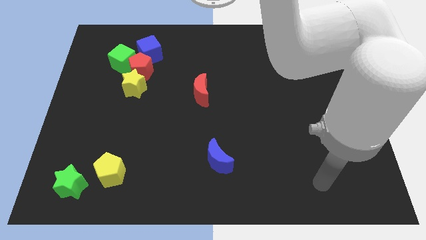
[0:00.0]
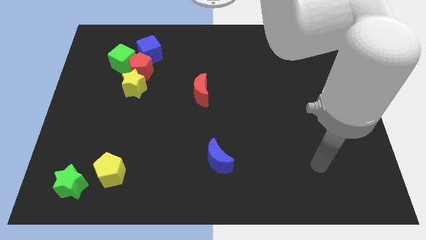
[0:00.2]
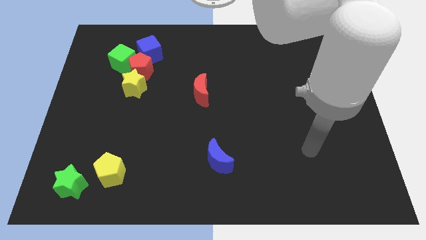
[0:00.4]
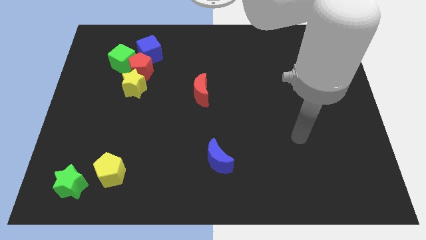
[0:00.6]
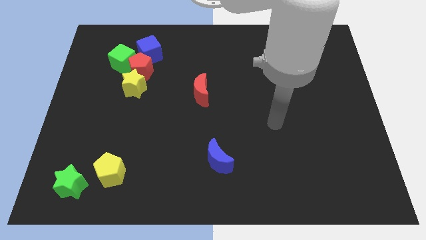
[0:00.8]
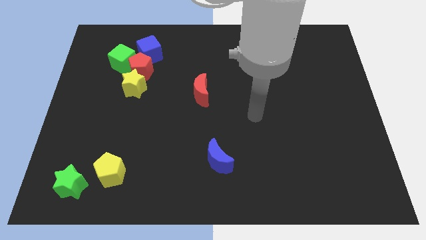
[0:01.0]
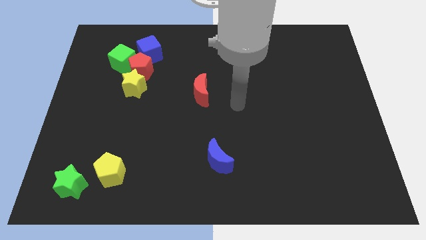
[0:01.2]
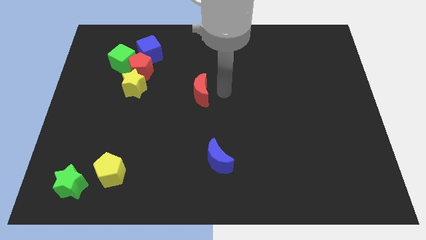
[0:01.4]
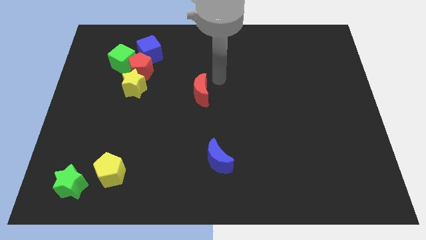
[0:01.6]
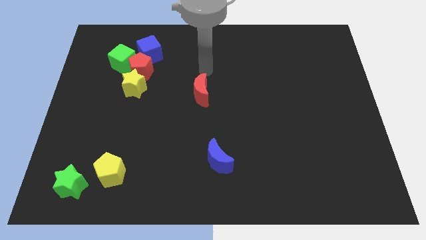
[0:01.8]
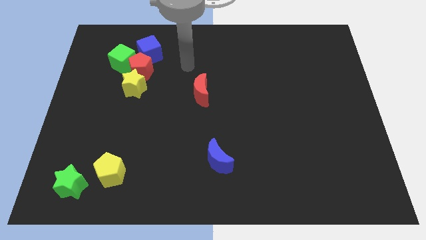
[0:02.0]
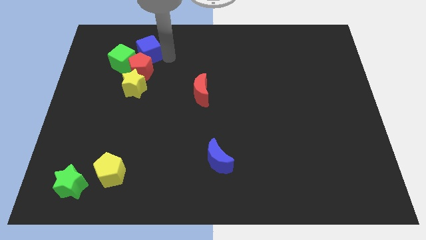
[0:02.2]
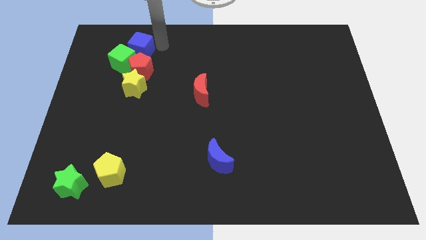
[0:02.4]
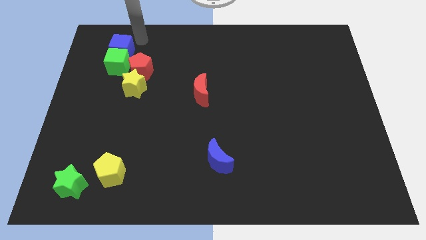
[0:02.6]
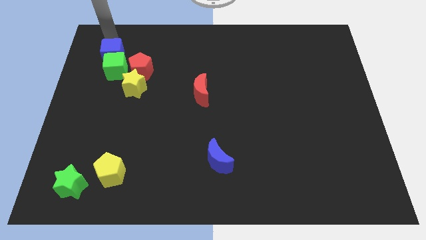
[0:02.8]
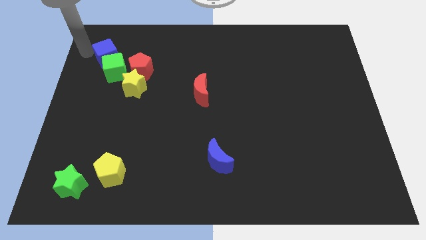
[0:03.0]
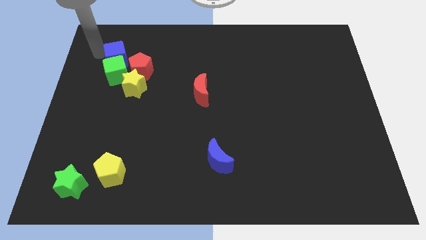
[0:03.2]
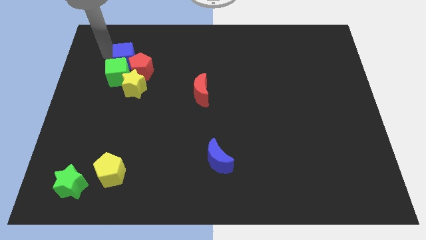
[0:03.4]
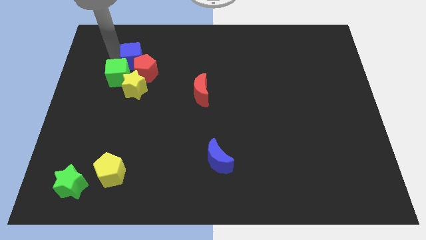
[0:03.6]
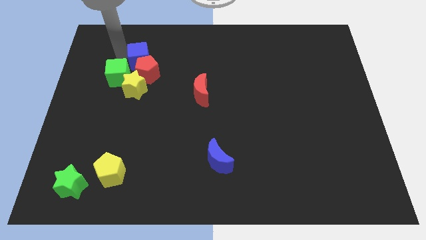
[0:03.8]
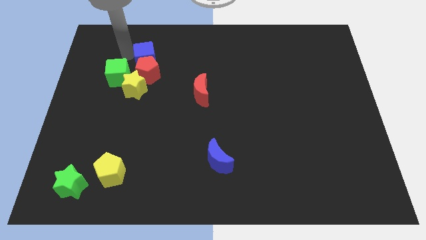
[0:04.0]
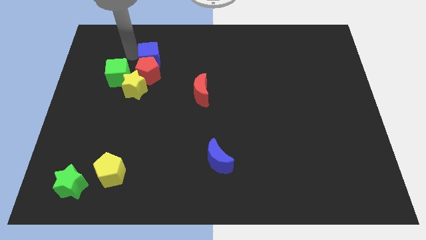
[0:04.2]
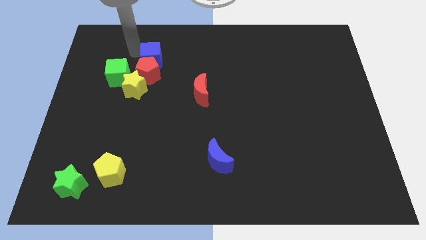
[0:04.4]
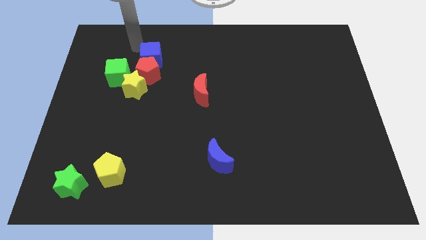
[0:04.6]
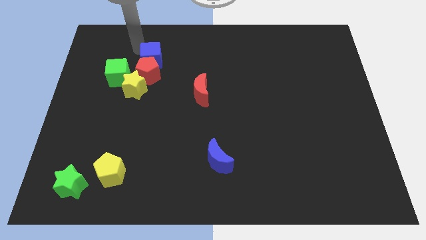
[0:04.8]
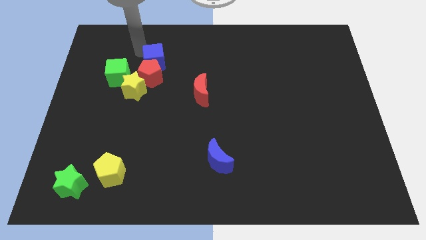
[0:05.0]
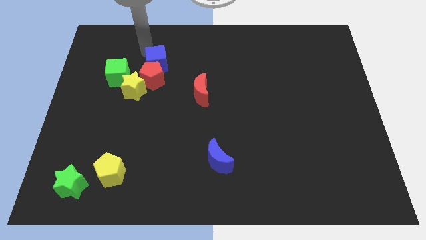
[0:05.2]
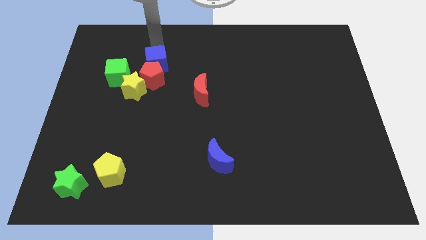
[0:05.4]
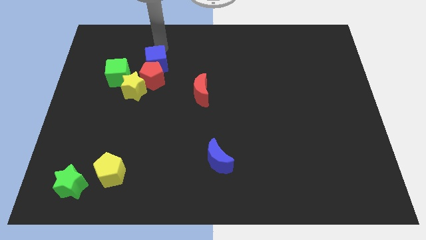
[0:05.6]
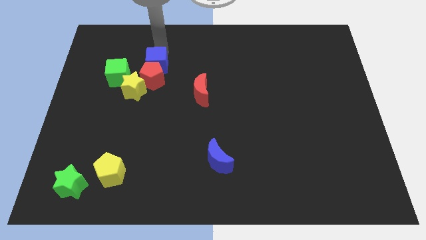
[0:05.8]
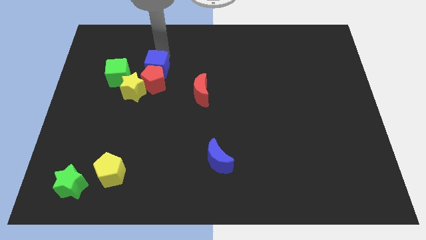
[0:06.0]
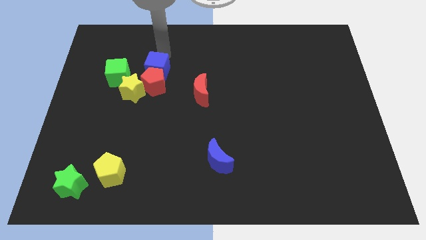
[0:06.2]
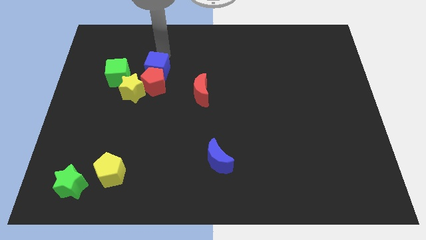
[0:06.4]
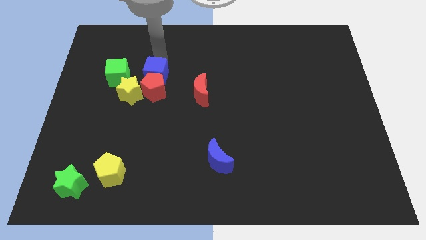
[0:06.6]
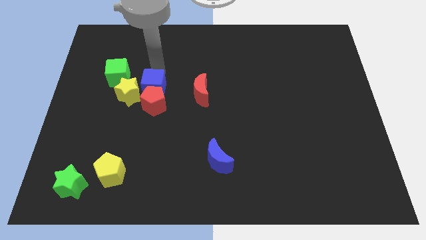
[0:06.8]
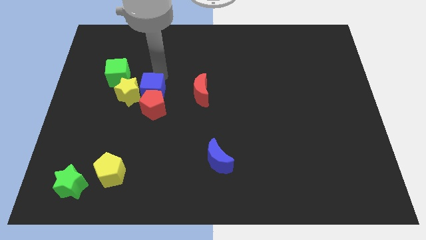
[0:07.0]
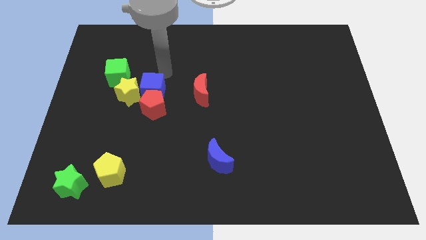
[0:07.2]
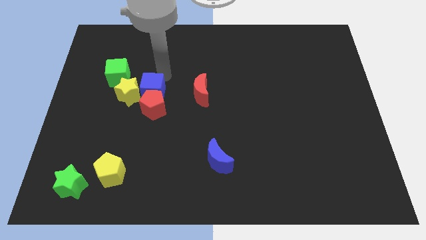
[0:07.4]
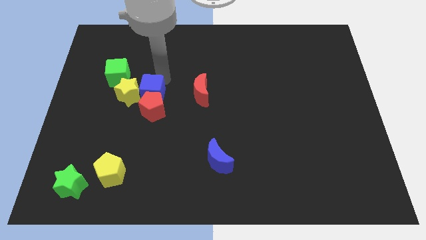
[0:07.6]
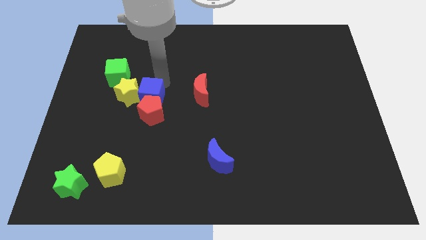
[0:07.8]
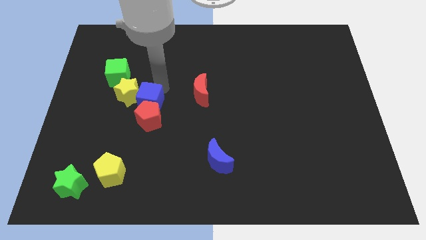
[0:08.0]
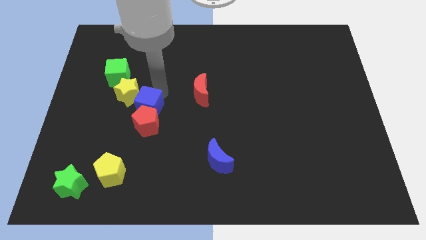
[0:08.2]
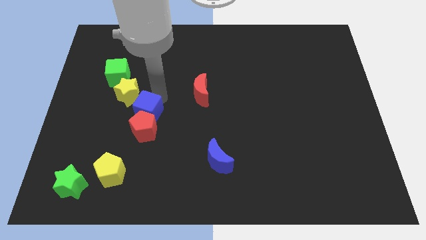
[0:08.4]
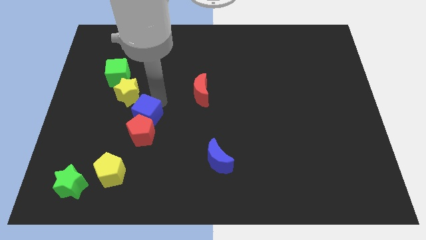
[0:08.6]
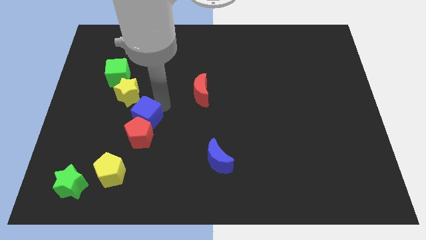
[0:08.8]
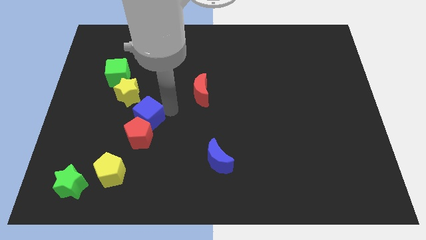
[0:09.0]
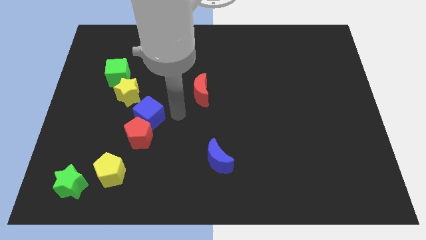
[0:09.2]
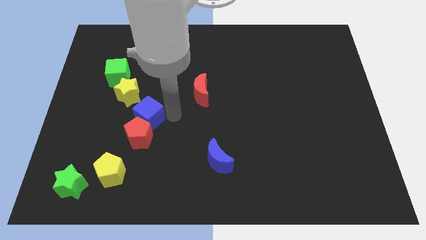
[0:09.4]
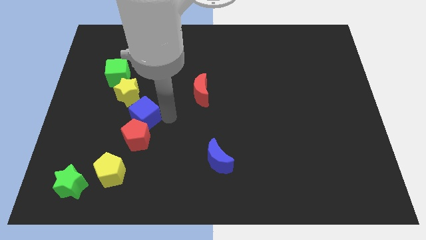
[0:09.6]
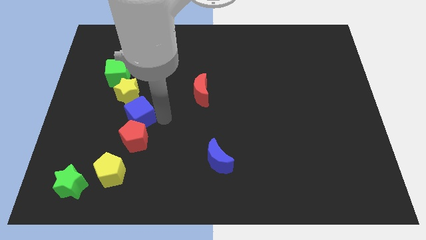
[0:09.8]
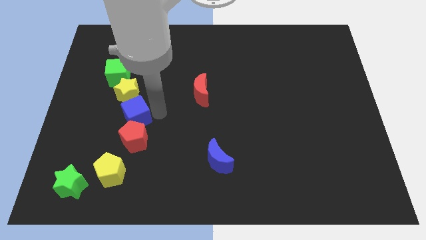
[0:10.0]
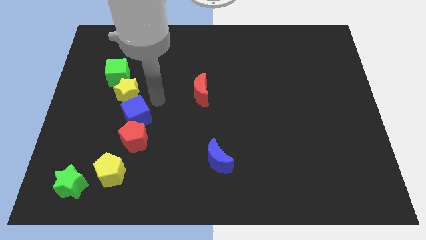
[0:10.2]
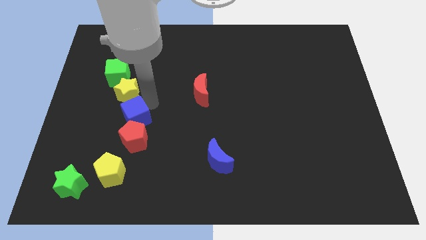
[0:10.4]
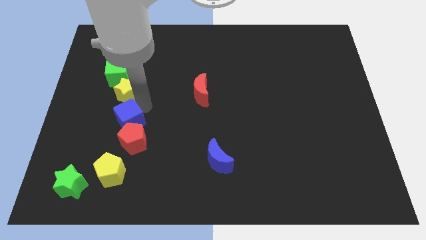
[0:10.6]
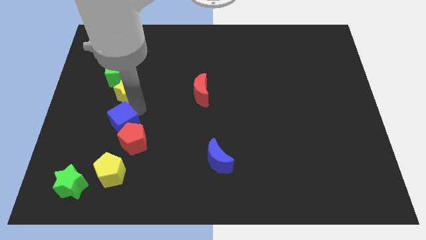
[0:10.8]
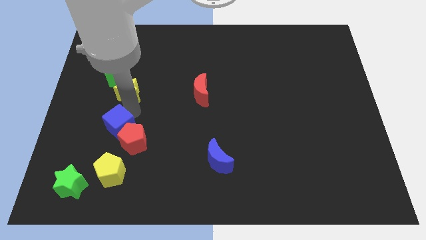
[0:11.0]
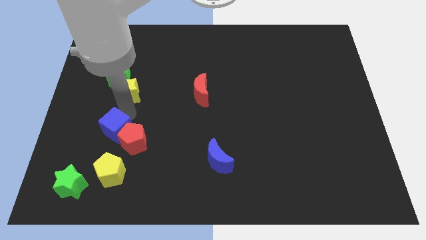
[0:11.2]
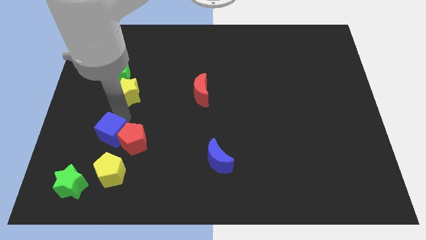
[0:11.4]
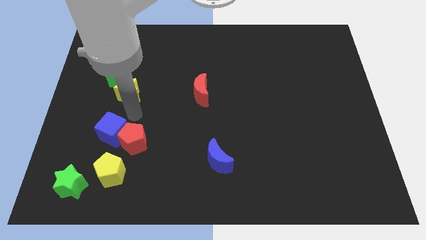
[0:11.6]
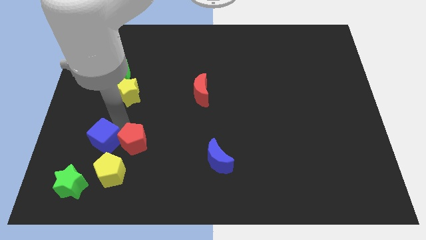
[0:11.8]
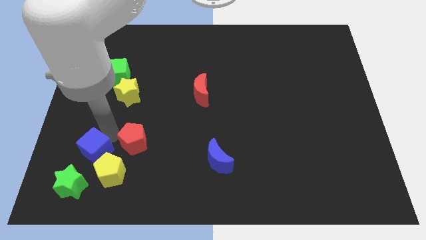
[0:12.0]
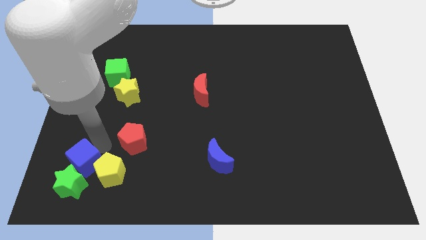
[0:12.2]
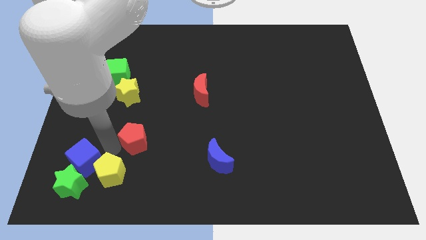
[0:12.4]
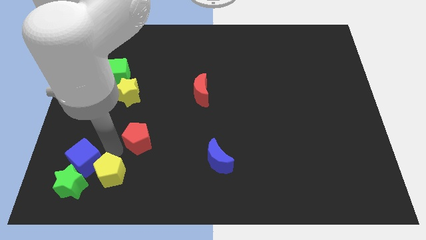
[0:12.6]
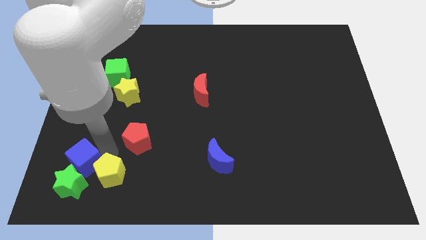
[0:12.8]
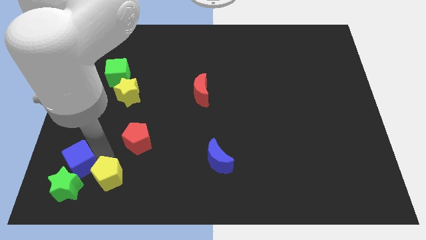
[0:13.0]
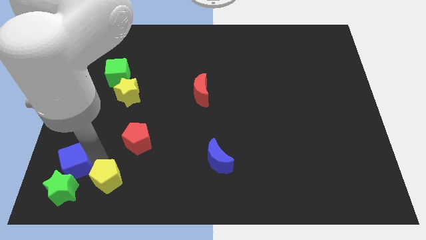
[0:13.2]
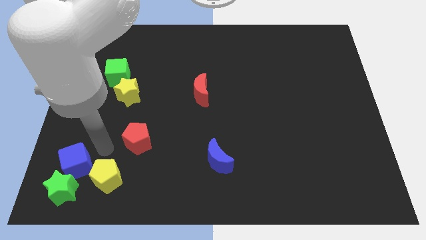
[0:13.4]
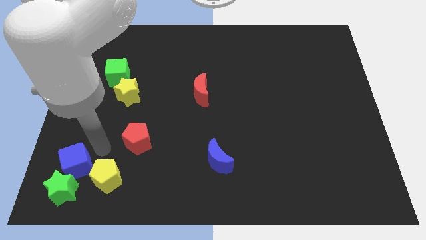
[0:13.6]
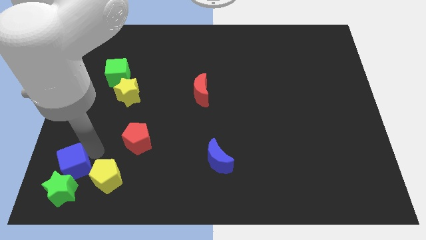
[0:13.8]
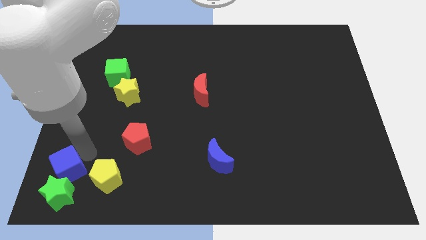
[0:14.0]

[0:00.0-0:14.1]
put the blue cube to the bottom left corner
